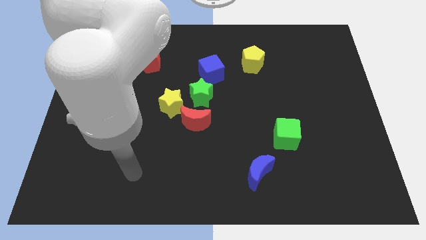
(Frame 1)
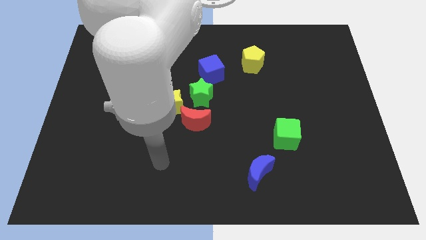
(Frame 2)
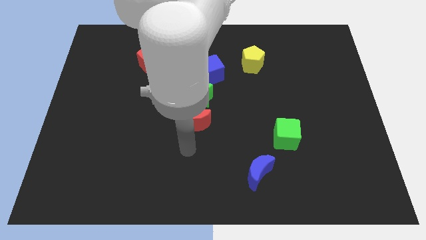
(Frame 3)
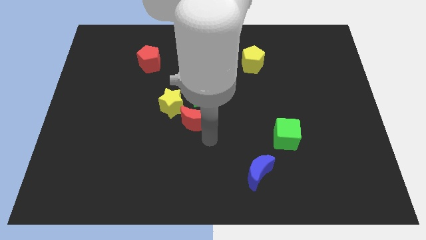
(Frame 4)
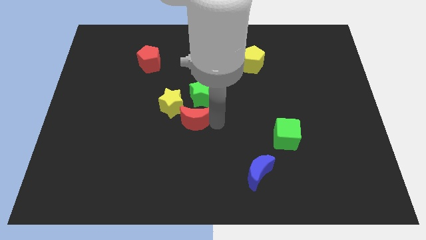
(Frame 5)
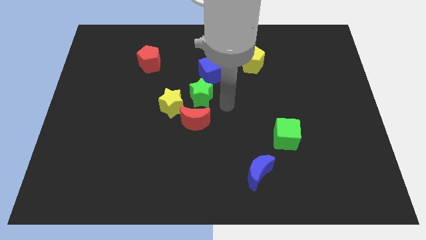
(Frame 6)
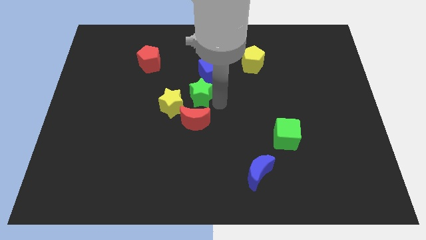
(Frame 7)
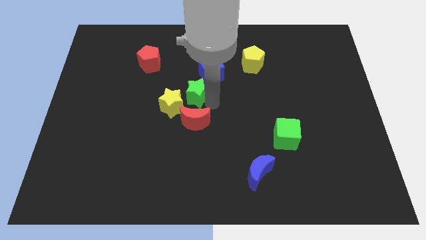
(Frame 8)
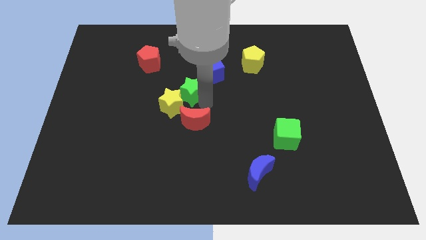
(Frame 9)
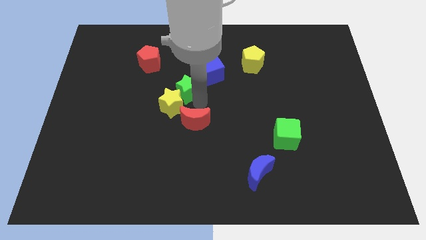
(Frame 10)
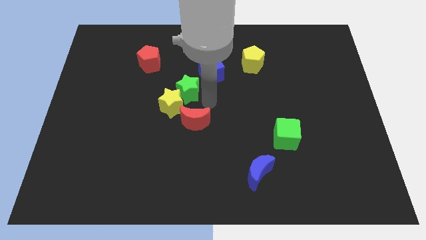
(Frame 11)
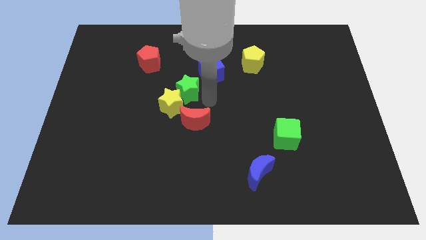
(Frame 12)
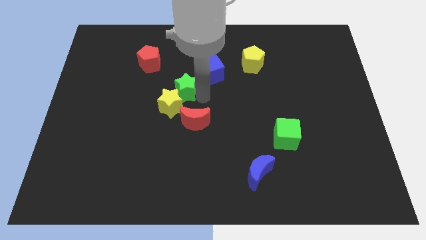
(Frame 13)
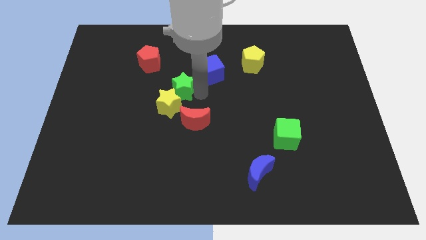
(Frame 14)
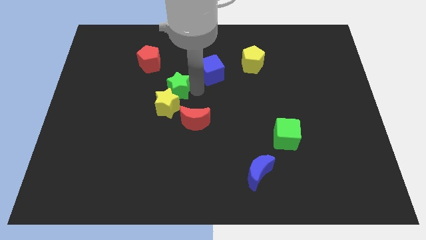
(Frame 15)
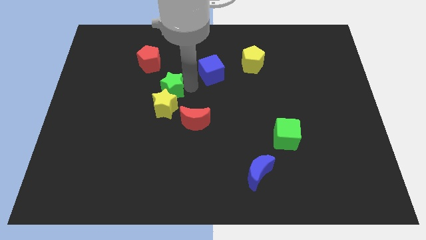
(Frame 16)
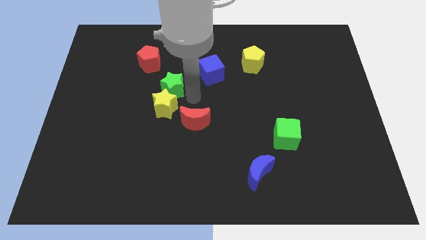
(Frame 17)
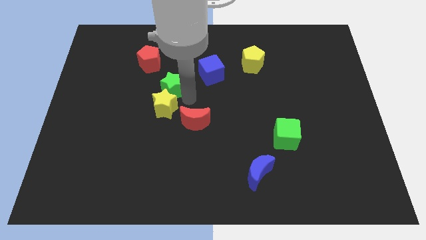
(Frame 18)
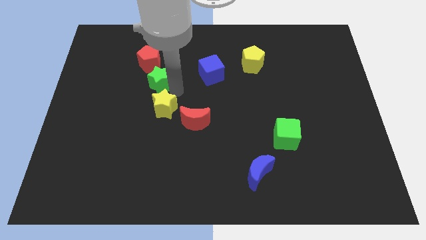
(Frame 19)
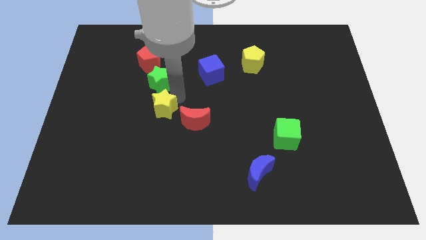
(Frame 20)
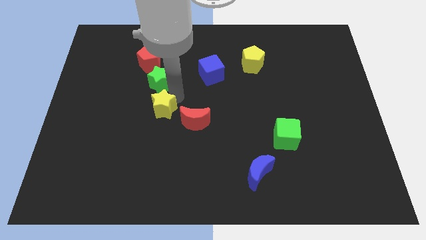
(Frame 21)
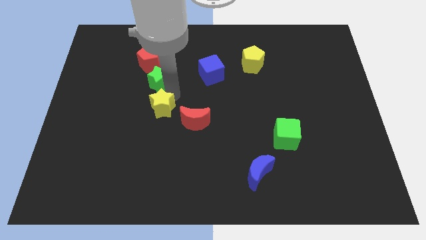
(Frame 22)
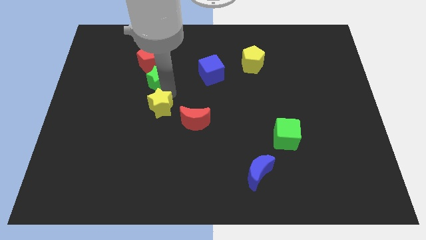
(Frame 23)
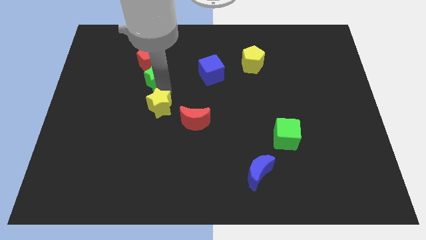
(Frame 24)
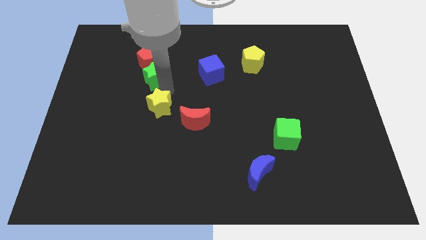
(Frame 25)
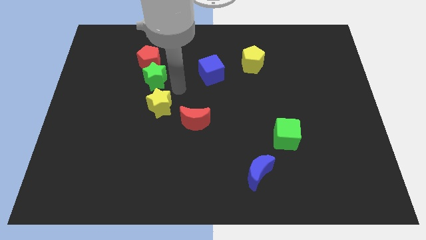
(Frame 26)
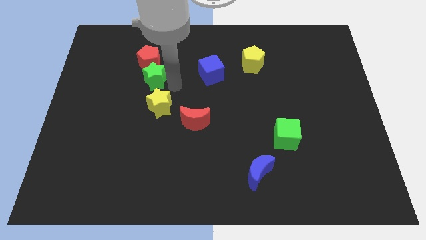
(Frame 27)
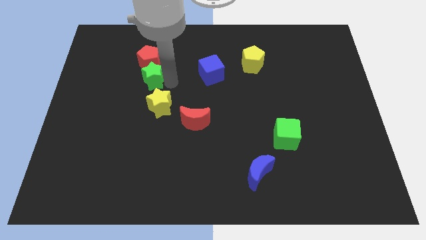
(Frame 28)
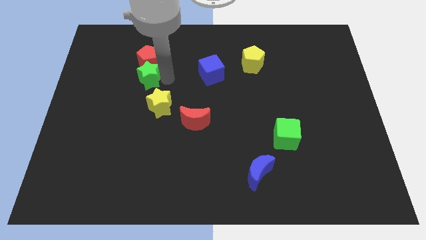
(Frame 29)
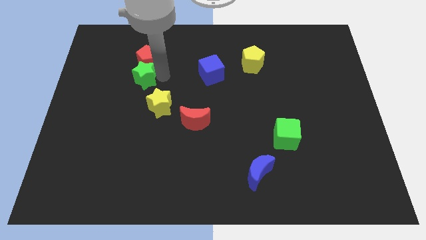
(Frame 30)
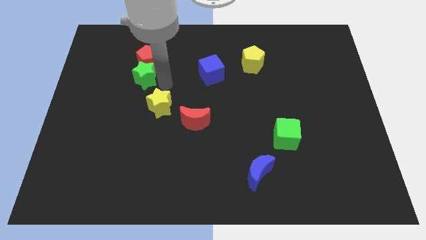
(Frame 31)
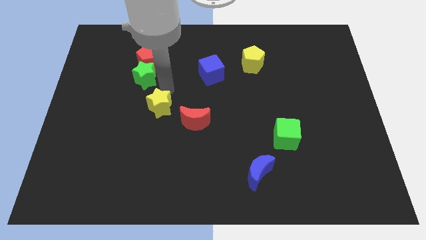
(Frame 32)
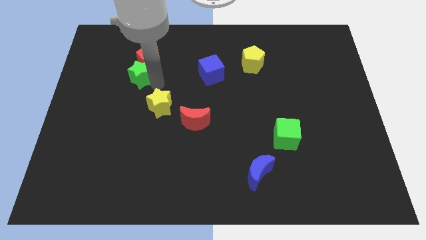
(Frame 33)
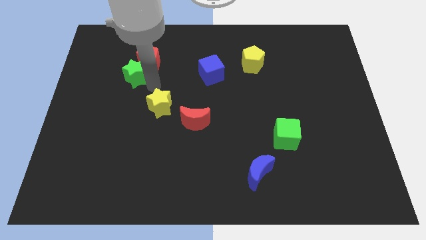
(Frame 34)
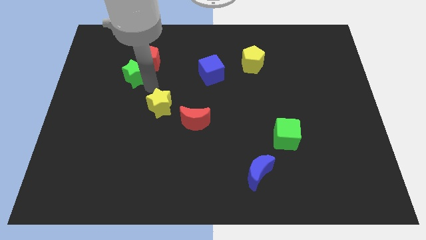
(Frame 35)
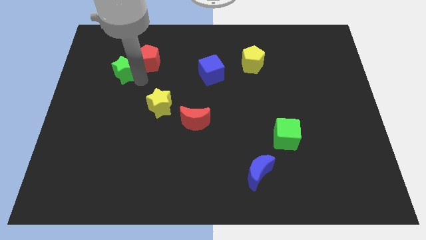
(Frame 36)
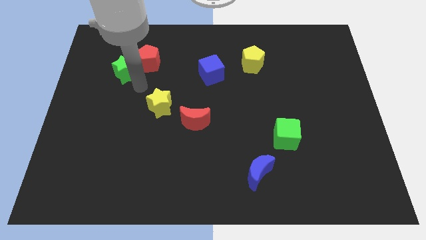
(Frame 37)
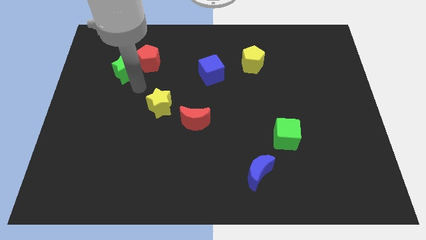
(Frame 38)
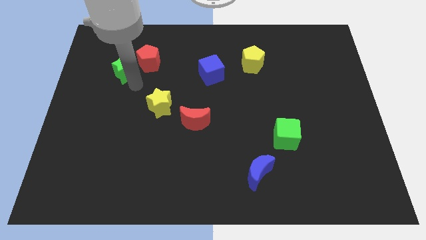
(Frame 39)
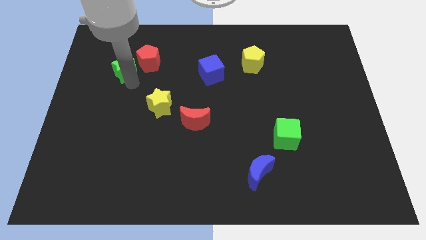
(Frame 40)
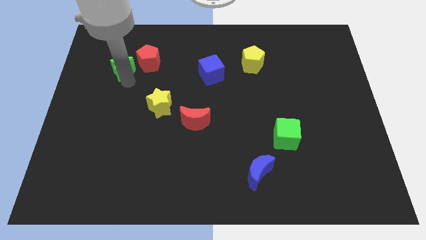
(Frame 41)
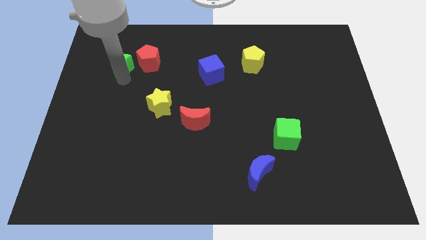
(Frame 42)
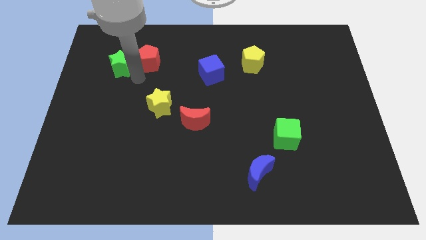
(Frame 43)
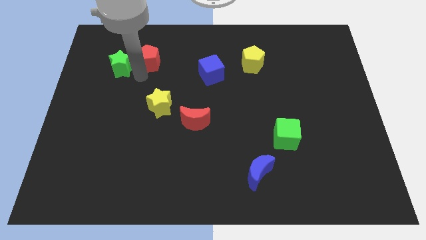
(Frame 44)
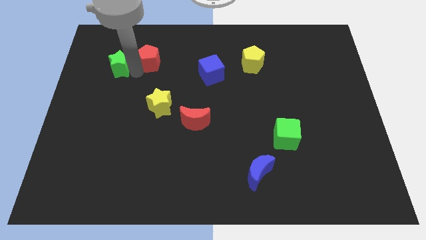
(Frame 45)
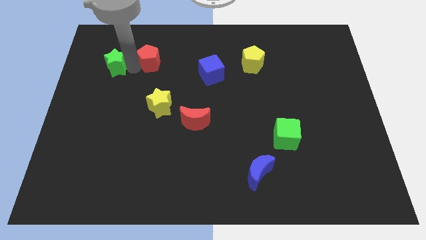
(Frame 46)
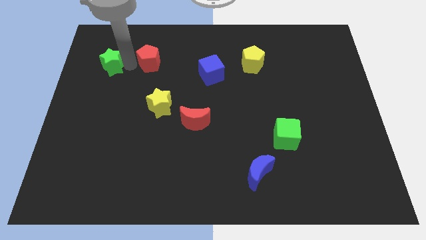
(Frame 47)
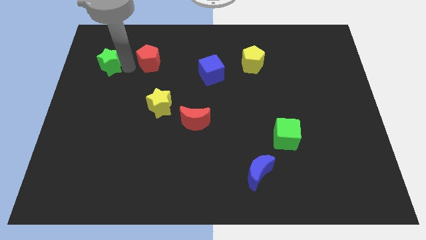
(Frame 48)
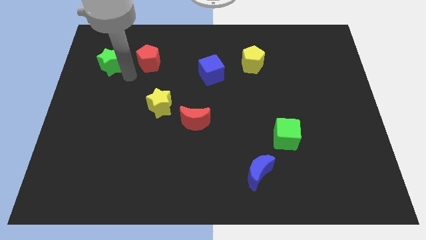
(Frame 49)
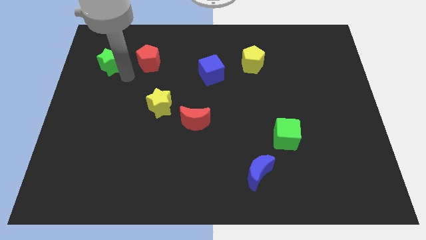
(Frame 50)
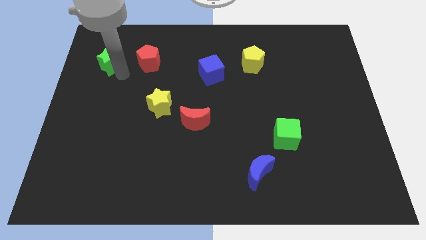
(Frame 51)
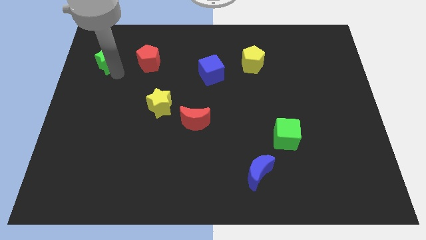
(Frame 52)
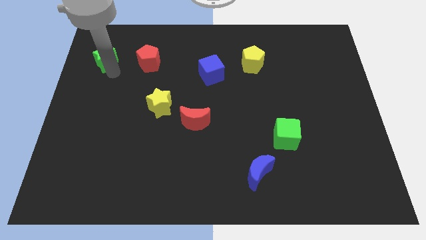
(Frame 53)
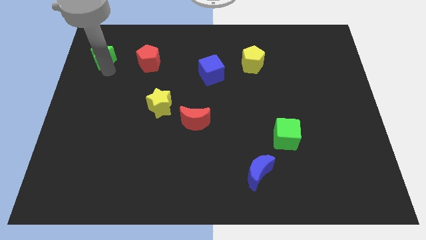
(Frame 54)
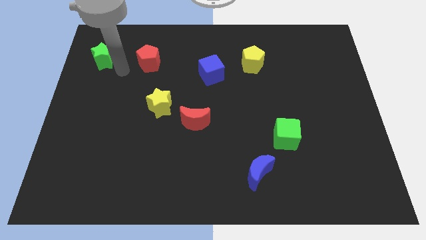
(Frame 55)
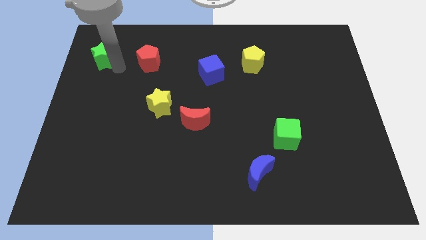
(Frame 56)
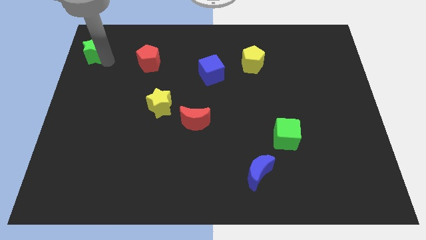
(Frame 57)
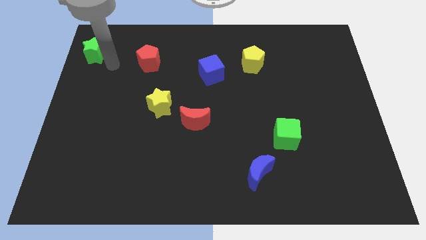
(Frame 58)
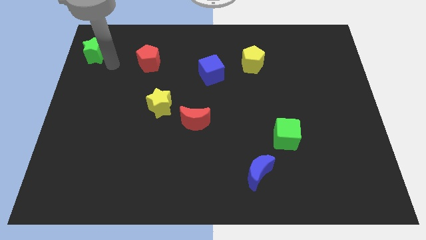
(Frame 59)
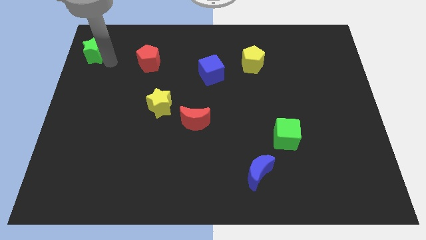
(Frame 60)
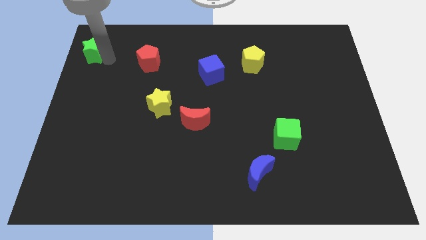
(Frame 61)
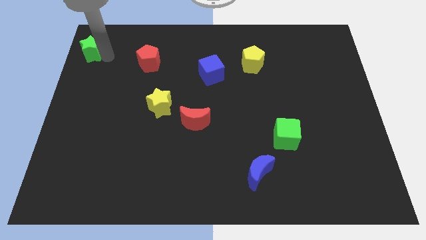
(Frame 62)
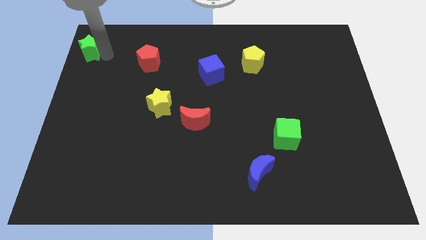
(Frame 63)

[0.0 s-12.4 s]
put the green star to the upper left corner
